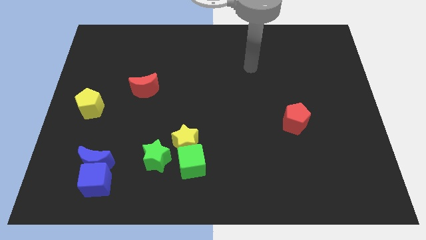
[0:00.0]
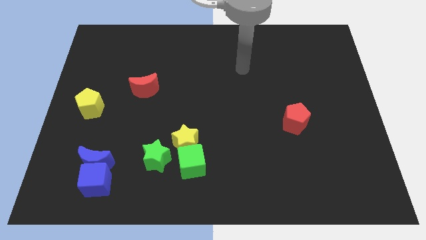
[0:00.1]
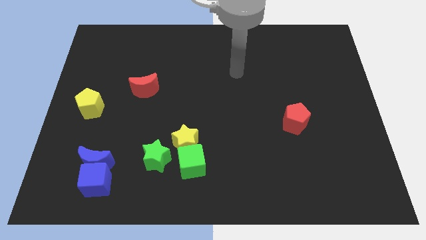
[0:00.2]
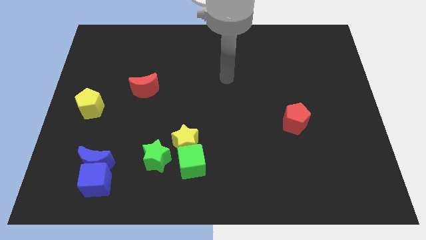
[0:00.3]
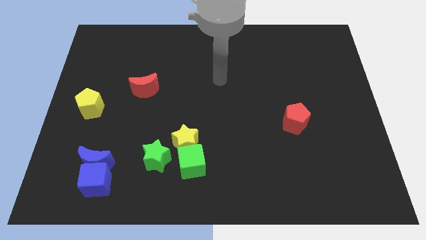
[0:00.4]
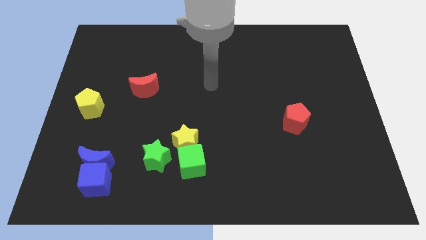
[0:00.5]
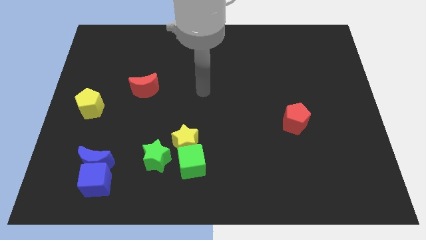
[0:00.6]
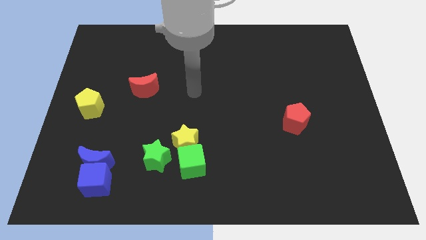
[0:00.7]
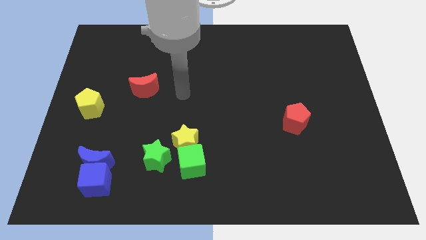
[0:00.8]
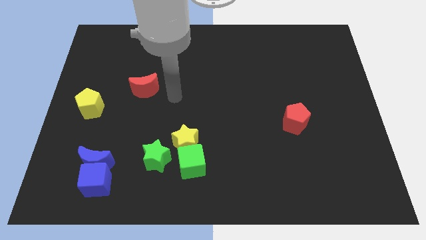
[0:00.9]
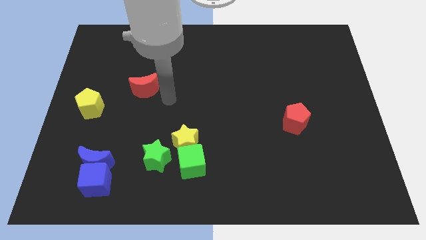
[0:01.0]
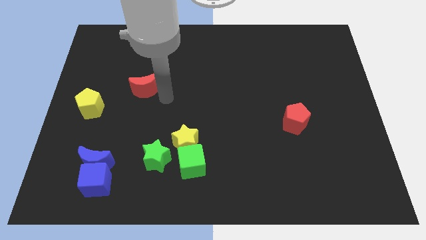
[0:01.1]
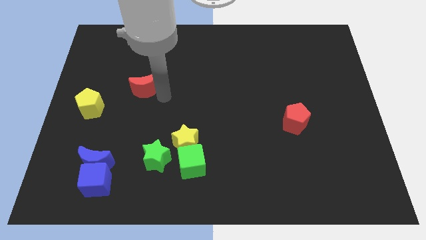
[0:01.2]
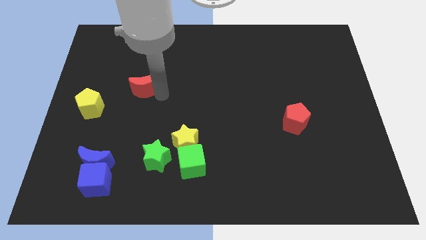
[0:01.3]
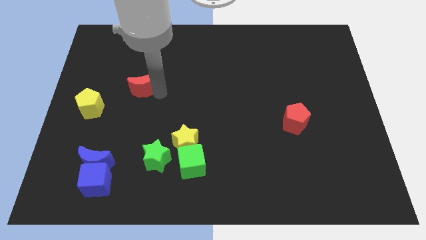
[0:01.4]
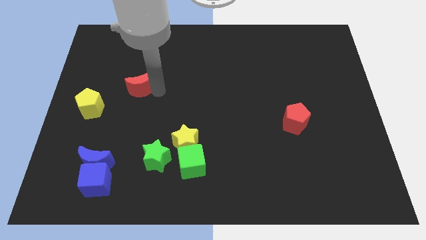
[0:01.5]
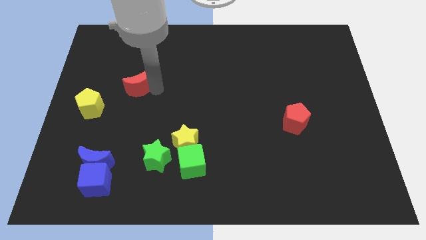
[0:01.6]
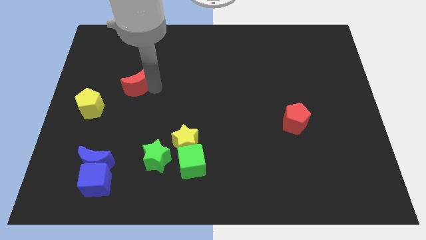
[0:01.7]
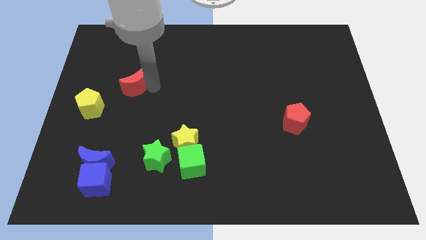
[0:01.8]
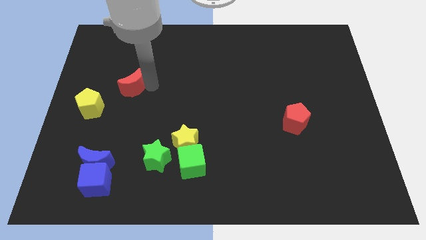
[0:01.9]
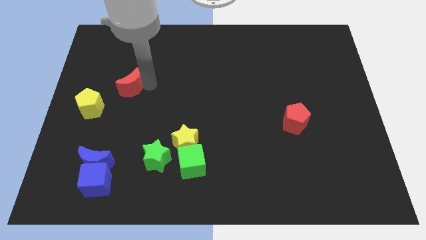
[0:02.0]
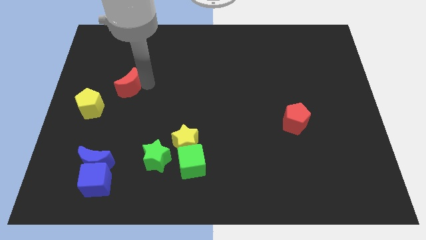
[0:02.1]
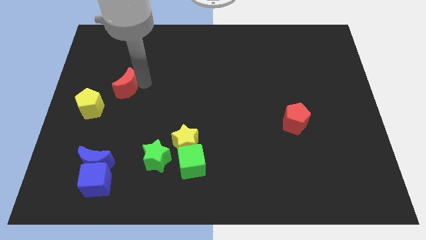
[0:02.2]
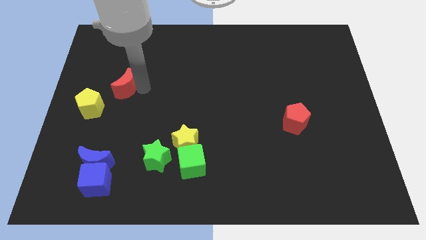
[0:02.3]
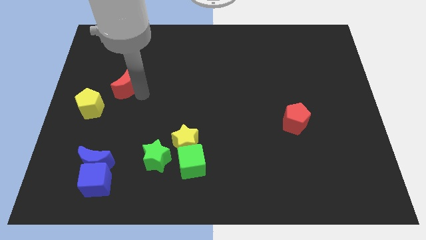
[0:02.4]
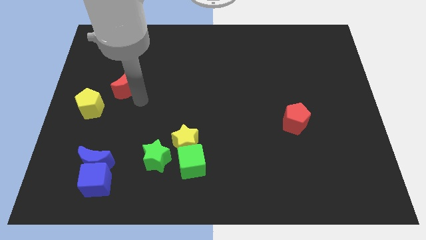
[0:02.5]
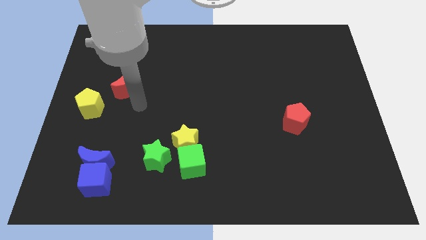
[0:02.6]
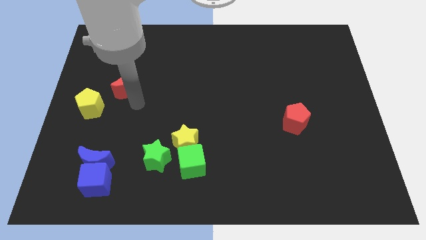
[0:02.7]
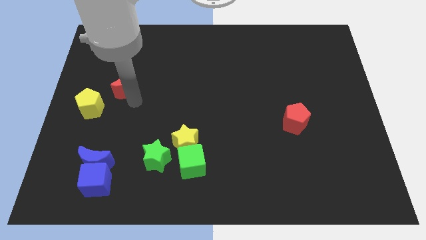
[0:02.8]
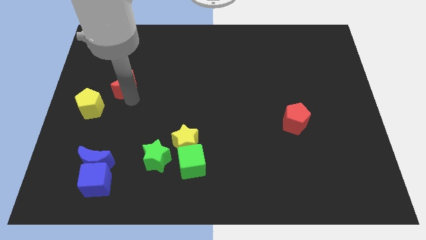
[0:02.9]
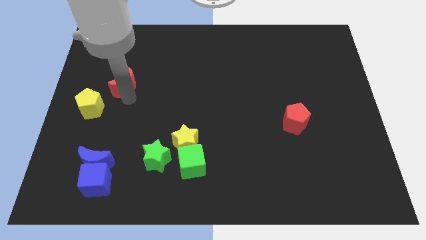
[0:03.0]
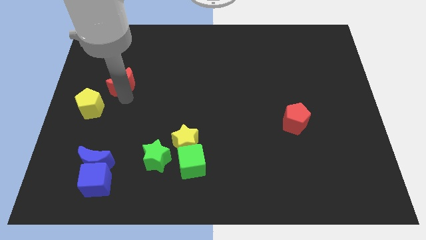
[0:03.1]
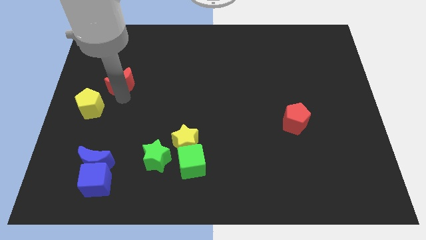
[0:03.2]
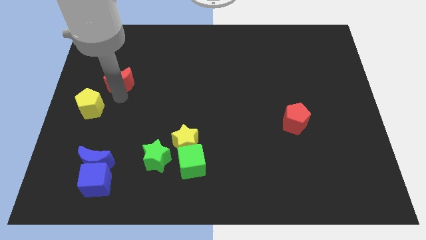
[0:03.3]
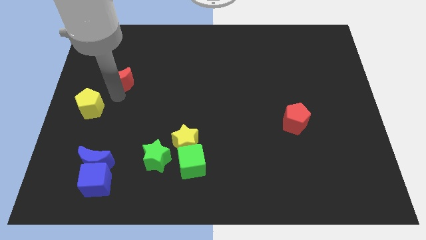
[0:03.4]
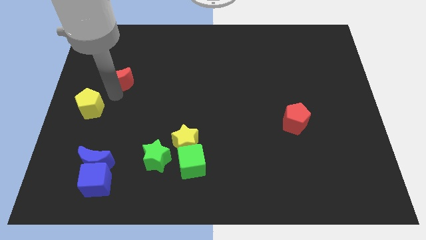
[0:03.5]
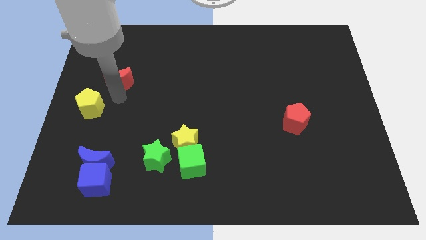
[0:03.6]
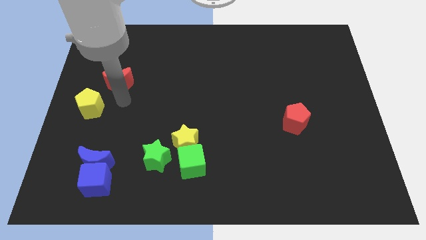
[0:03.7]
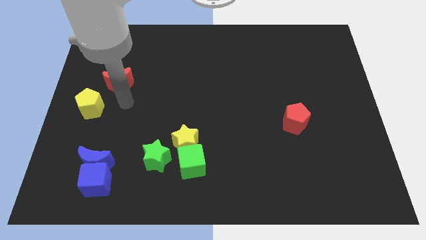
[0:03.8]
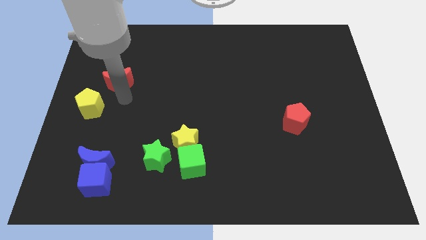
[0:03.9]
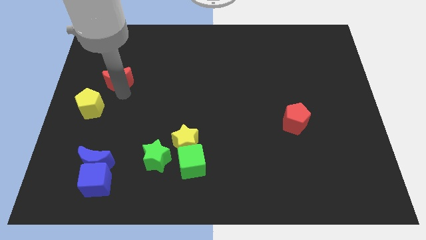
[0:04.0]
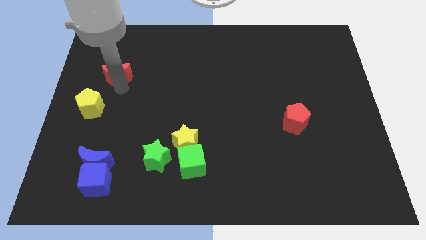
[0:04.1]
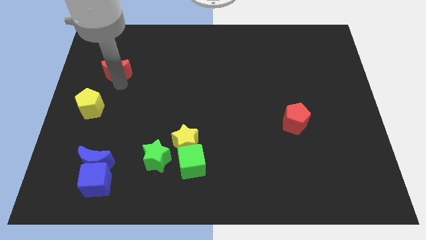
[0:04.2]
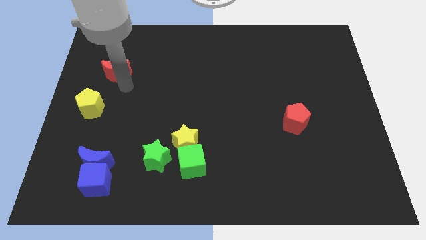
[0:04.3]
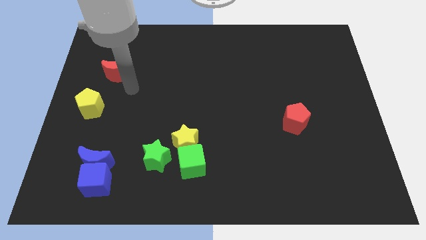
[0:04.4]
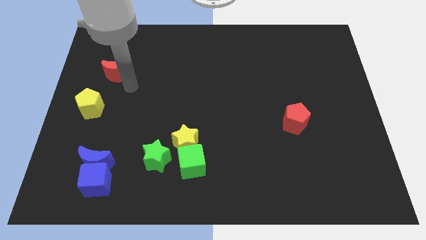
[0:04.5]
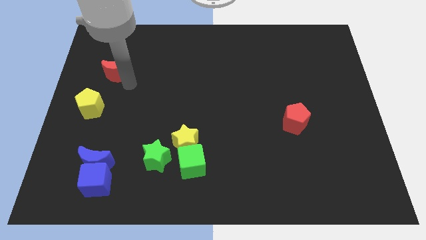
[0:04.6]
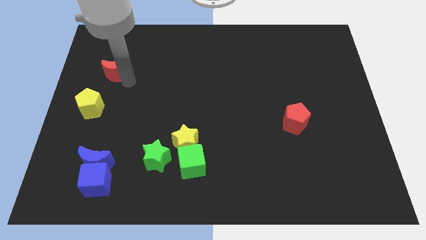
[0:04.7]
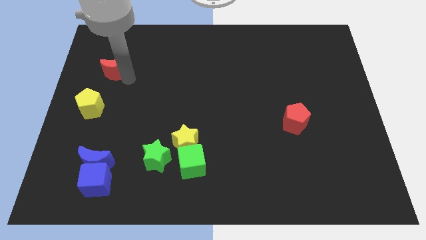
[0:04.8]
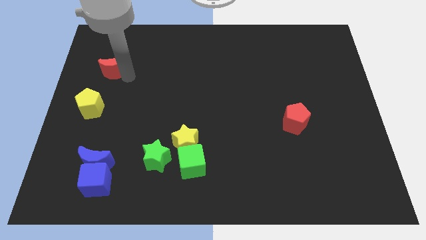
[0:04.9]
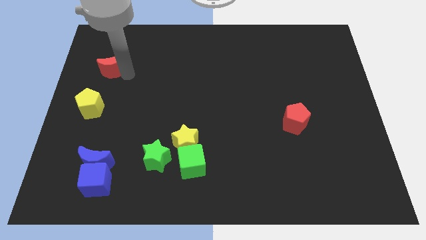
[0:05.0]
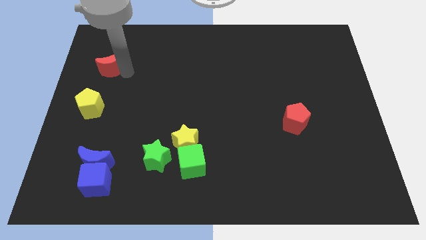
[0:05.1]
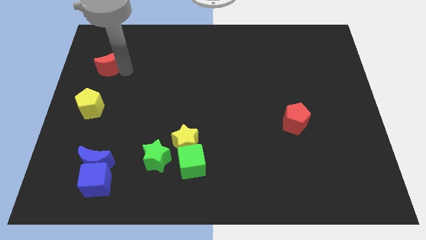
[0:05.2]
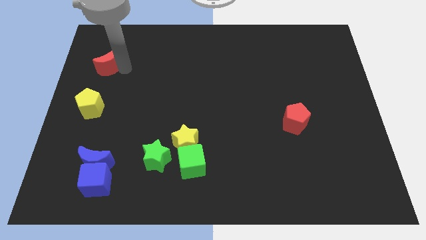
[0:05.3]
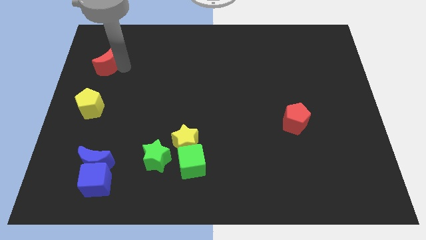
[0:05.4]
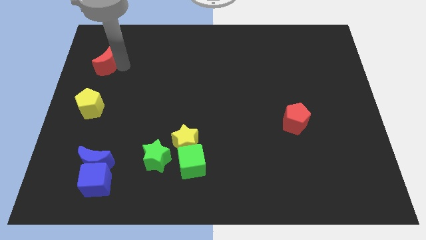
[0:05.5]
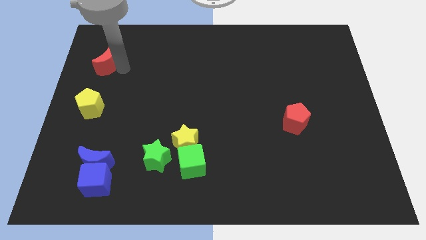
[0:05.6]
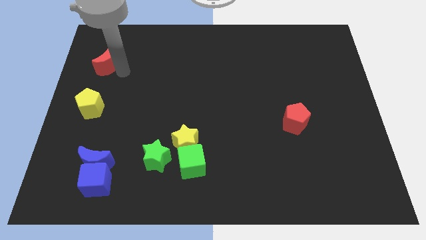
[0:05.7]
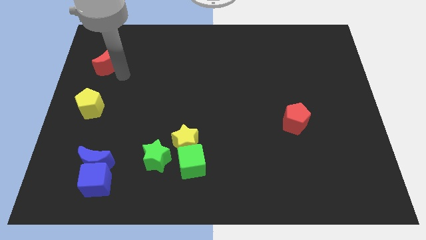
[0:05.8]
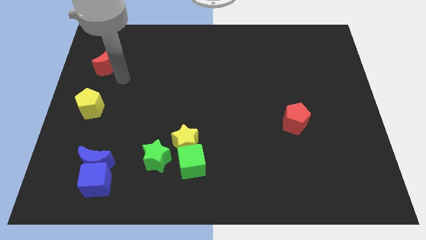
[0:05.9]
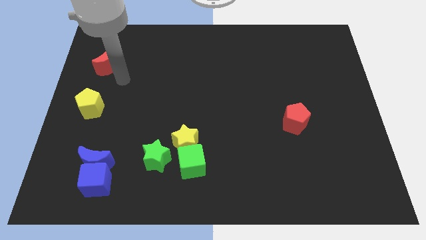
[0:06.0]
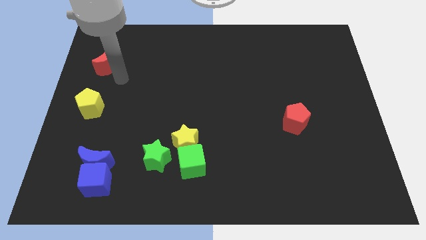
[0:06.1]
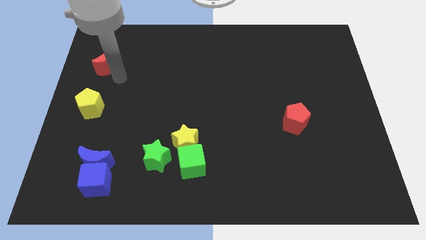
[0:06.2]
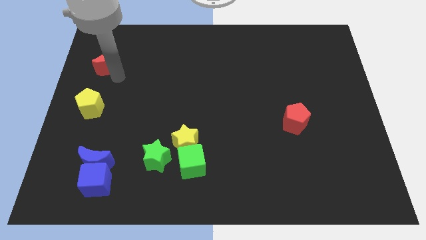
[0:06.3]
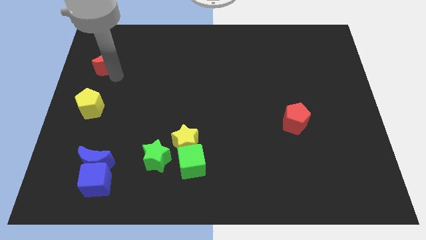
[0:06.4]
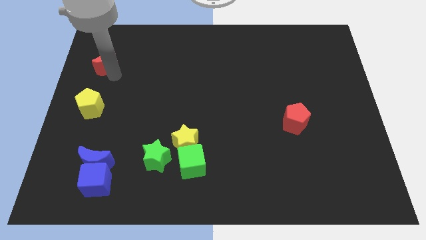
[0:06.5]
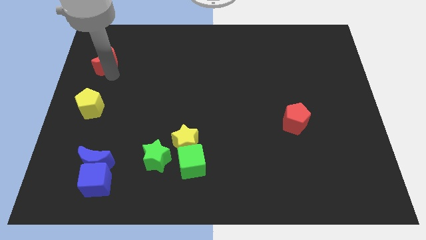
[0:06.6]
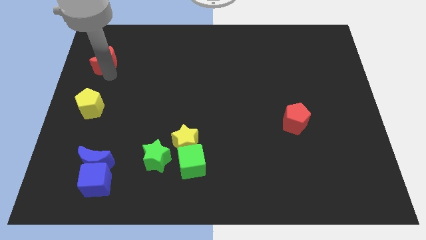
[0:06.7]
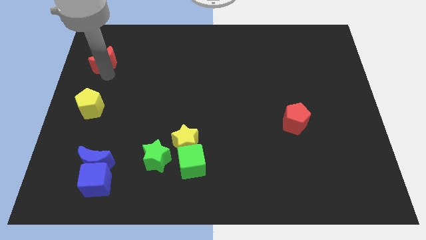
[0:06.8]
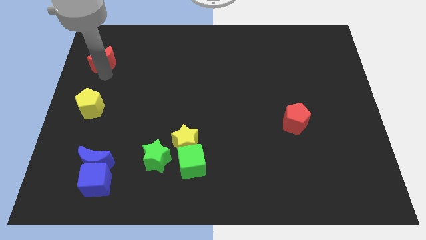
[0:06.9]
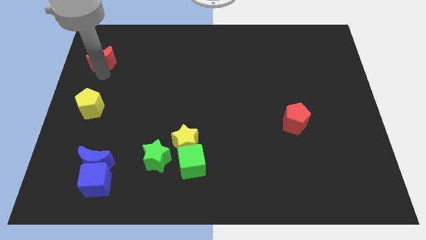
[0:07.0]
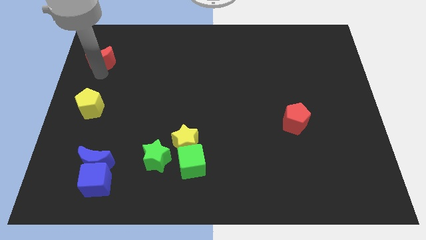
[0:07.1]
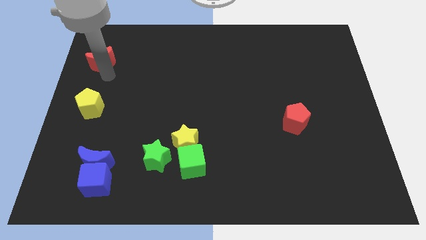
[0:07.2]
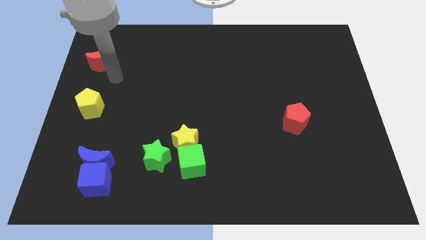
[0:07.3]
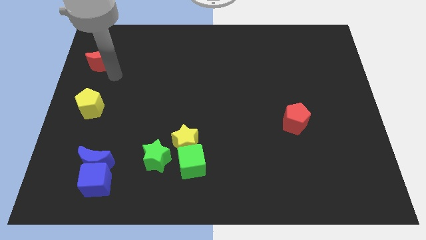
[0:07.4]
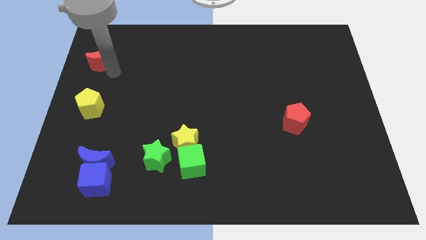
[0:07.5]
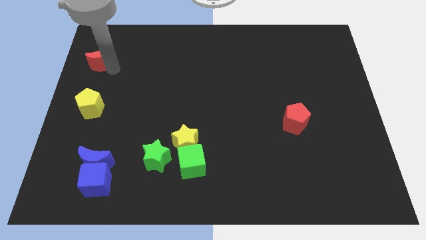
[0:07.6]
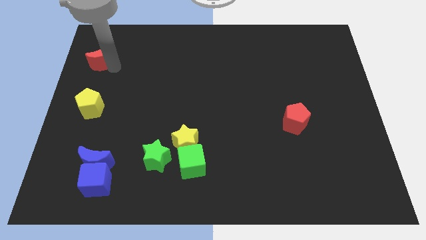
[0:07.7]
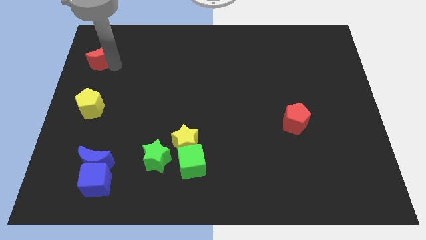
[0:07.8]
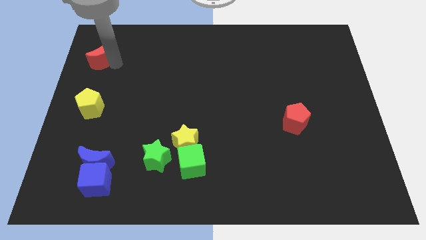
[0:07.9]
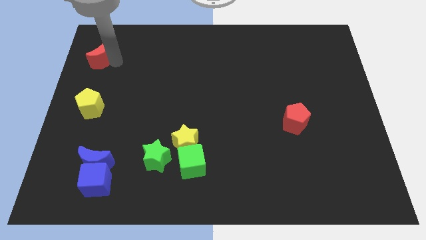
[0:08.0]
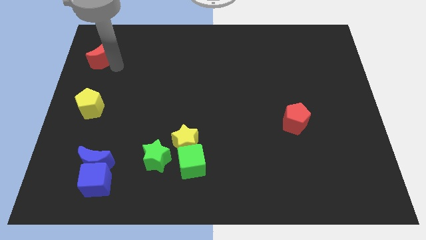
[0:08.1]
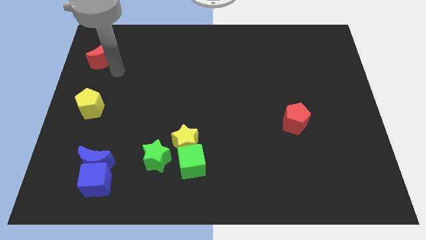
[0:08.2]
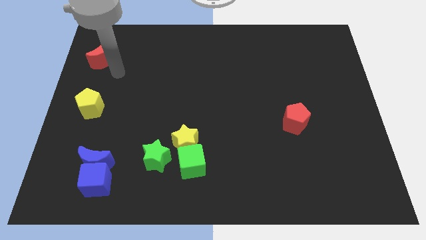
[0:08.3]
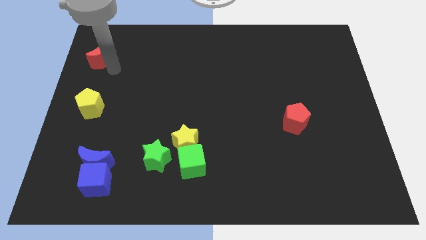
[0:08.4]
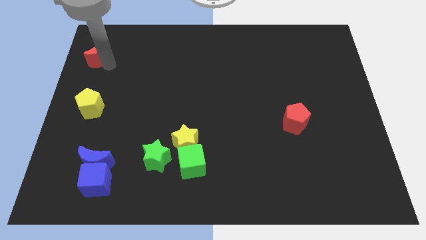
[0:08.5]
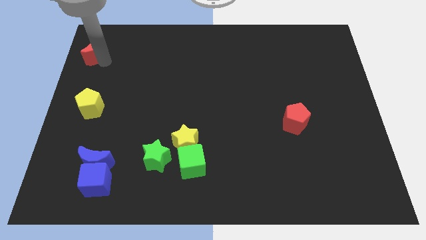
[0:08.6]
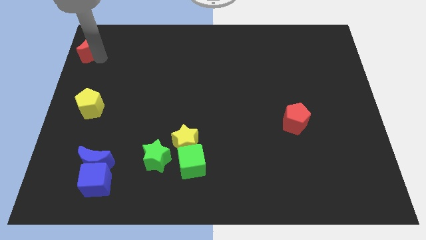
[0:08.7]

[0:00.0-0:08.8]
slide the red moon to the upper left corner
